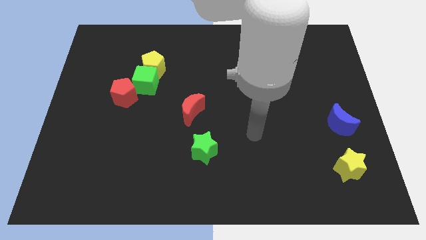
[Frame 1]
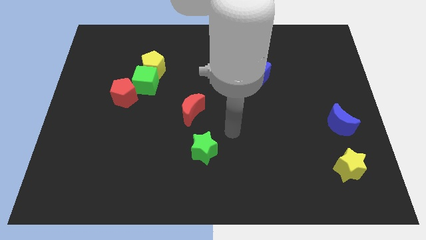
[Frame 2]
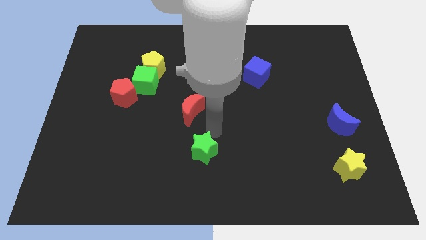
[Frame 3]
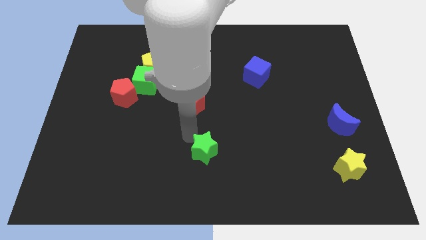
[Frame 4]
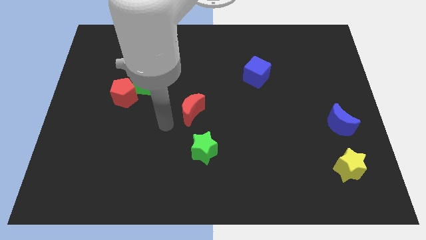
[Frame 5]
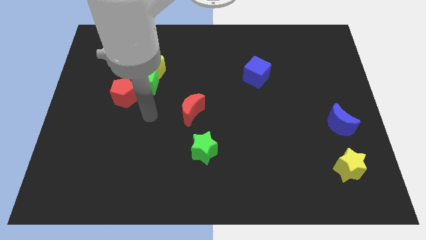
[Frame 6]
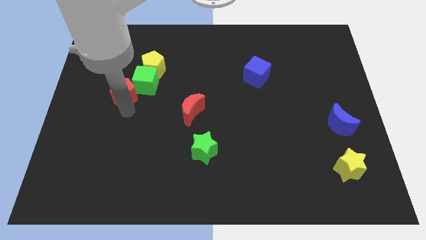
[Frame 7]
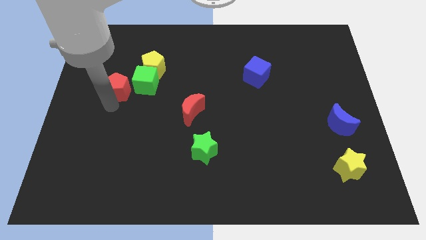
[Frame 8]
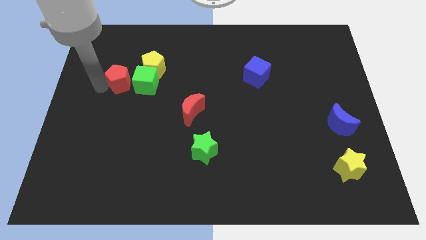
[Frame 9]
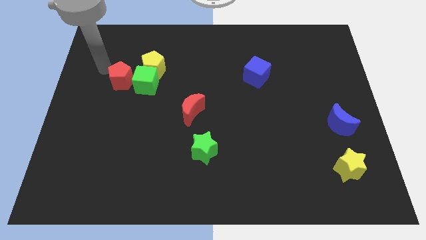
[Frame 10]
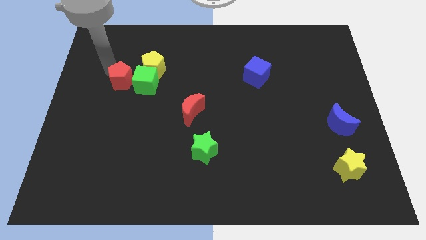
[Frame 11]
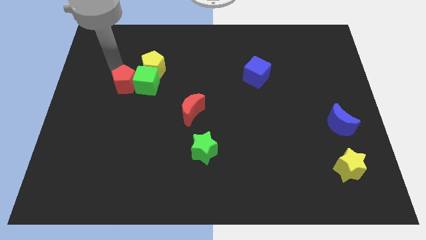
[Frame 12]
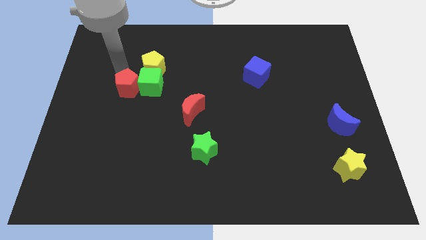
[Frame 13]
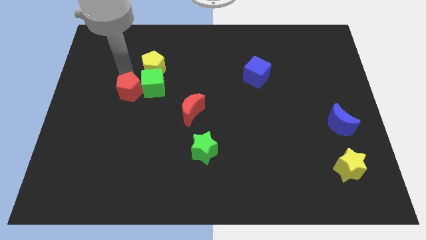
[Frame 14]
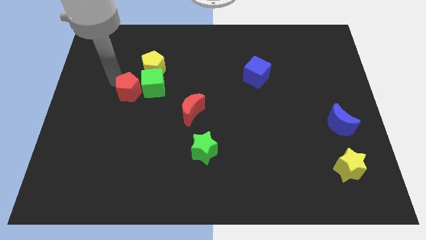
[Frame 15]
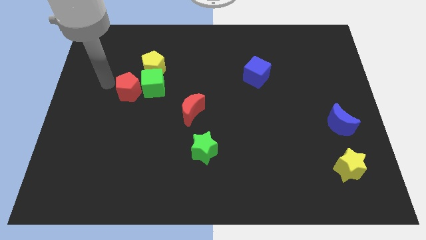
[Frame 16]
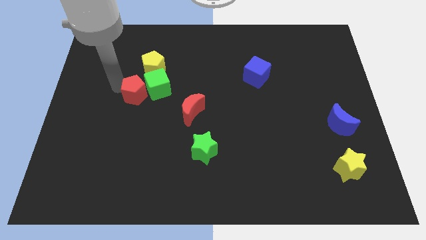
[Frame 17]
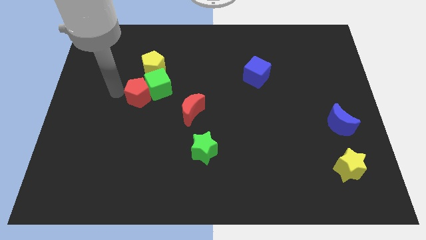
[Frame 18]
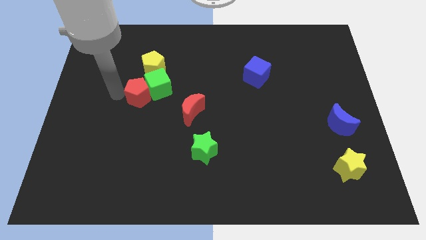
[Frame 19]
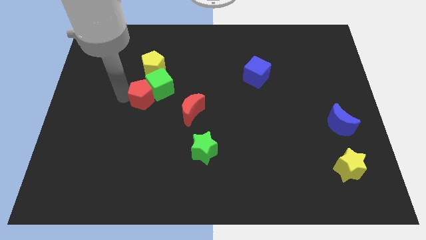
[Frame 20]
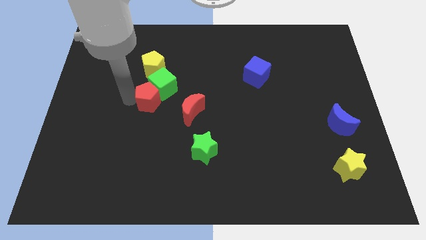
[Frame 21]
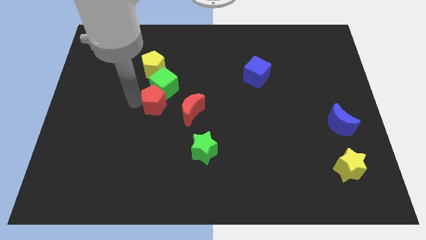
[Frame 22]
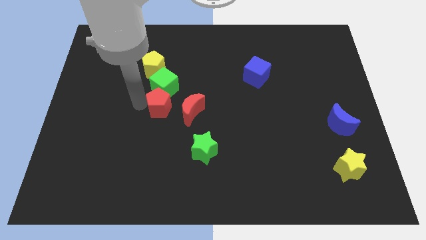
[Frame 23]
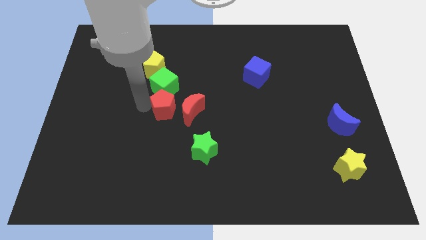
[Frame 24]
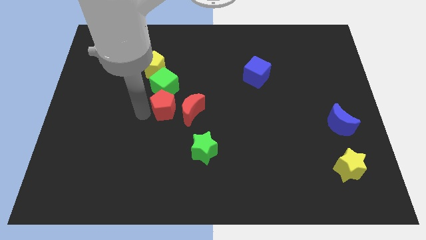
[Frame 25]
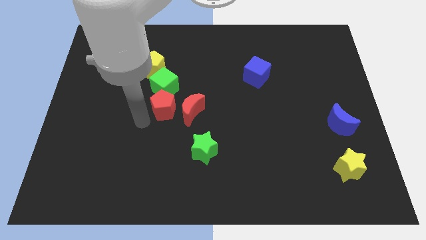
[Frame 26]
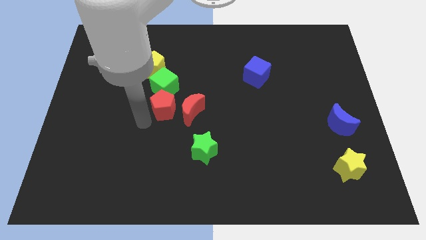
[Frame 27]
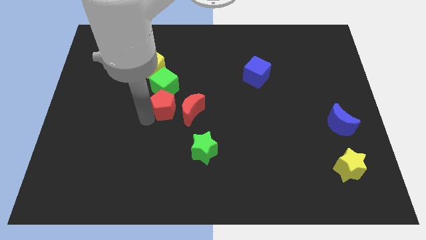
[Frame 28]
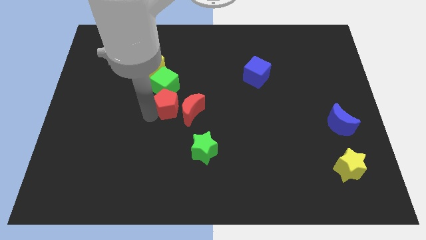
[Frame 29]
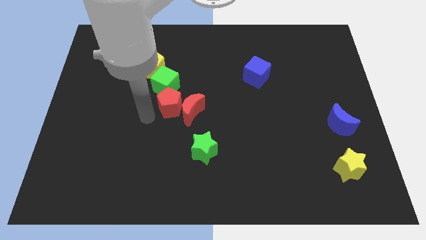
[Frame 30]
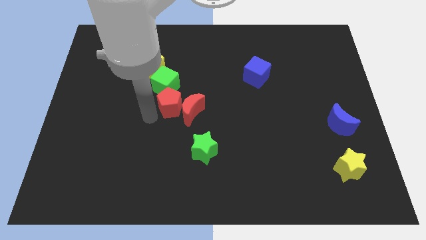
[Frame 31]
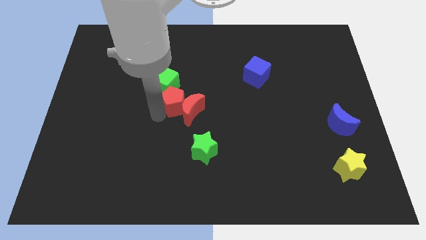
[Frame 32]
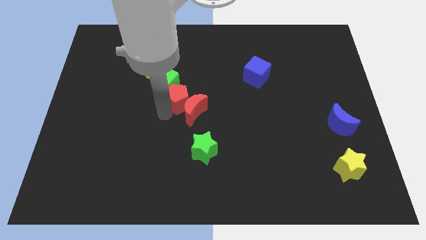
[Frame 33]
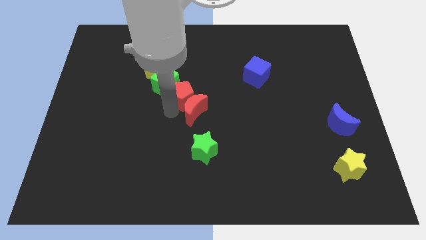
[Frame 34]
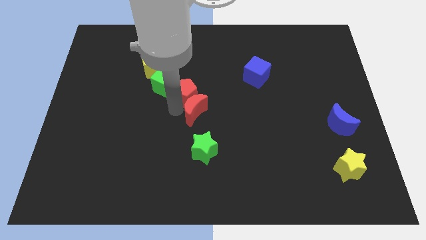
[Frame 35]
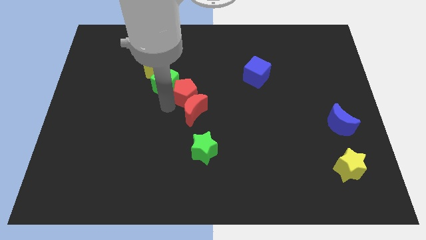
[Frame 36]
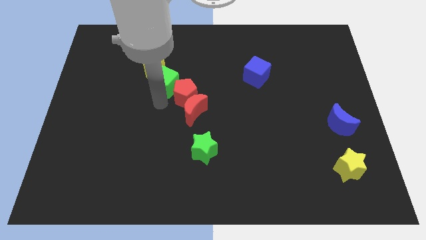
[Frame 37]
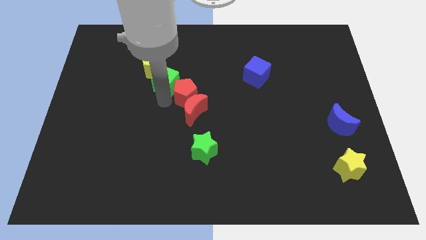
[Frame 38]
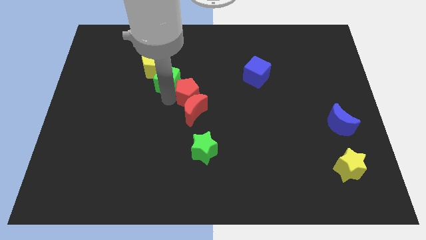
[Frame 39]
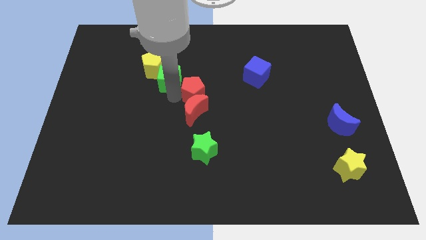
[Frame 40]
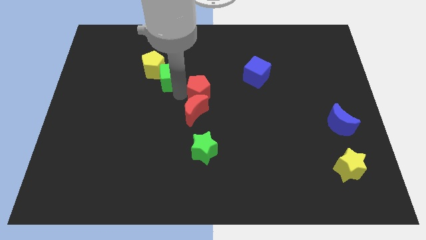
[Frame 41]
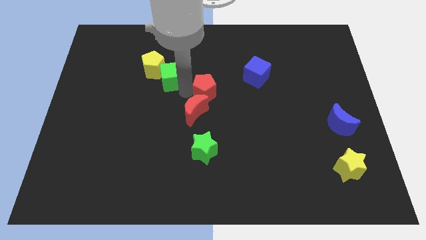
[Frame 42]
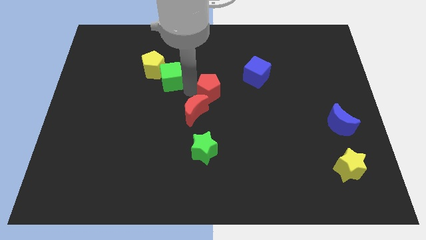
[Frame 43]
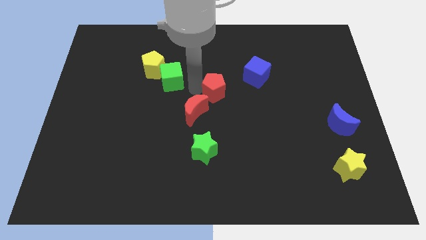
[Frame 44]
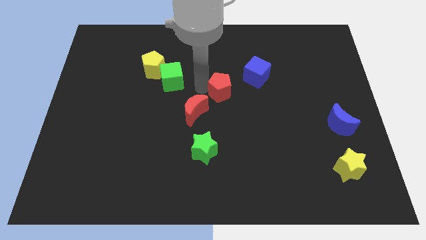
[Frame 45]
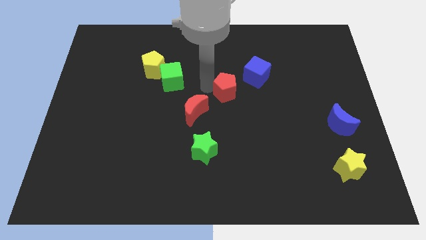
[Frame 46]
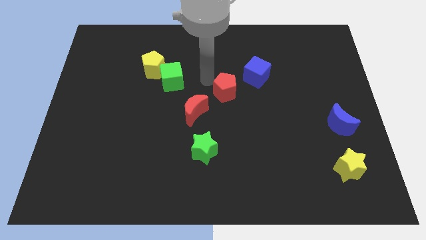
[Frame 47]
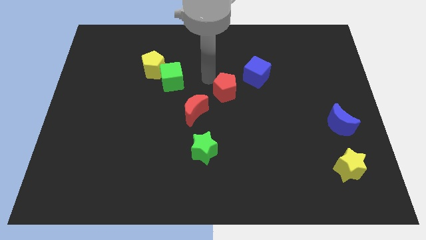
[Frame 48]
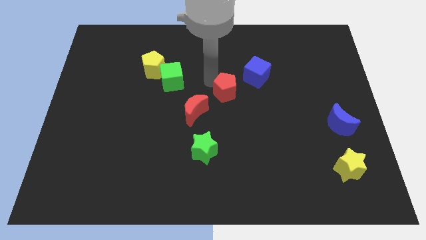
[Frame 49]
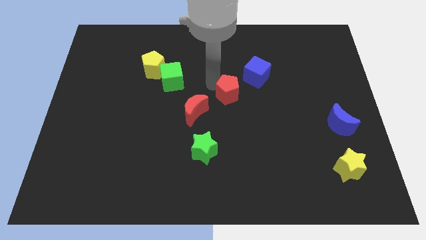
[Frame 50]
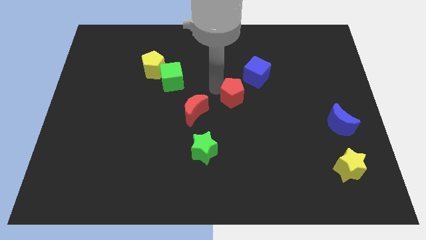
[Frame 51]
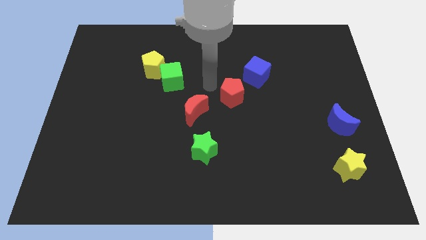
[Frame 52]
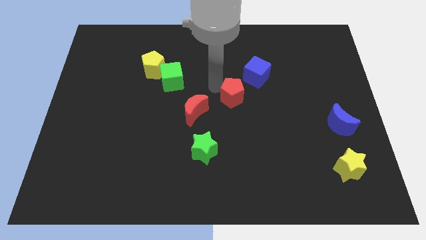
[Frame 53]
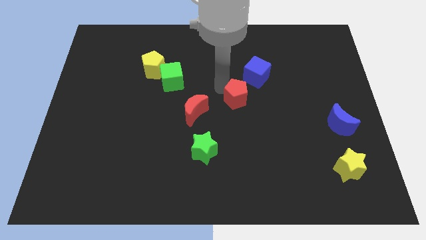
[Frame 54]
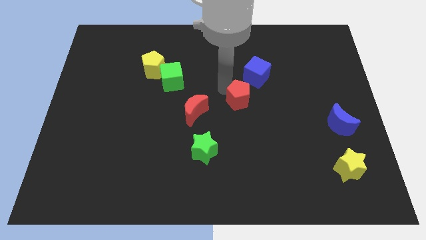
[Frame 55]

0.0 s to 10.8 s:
slide the red pentagon to the bottom of the blue cube

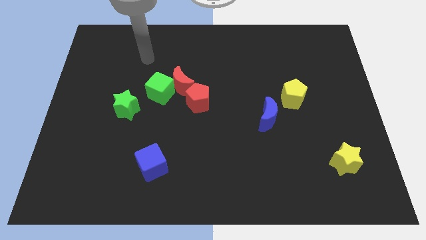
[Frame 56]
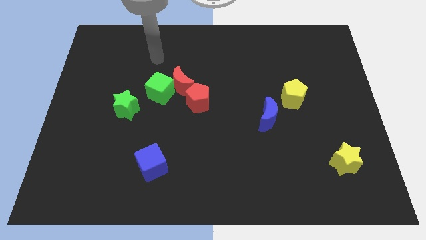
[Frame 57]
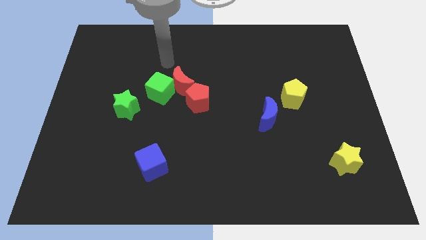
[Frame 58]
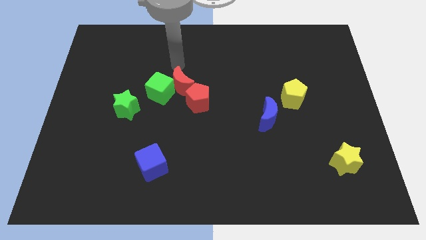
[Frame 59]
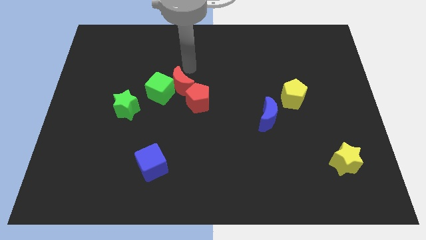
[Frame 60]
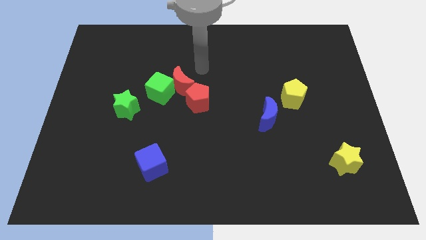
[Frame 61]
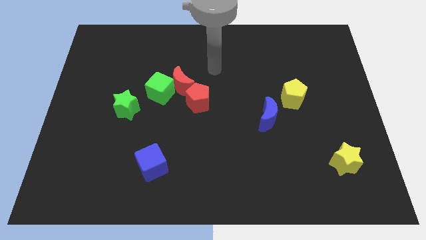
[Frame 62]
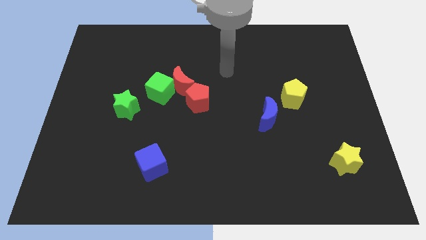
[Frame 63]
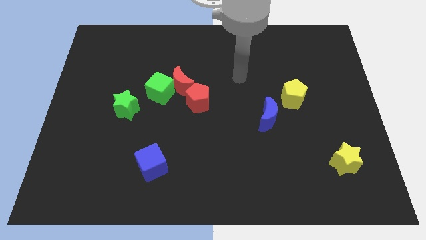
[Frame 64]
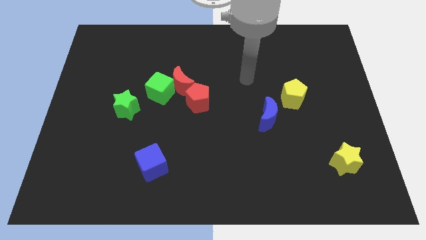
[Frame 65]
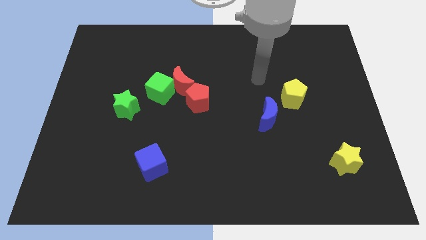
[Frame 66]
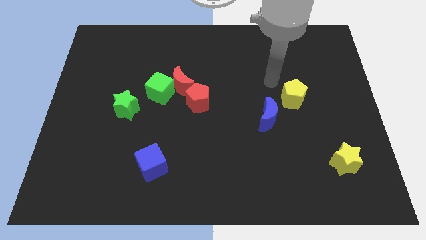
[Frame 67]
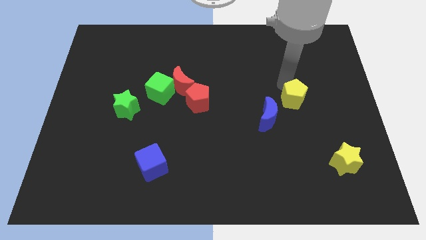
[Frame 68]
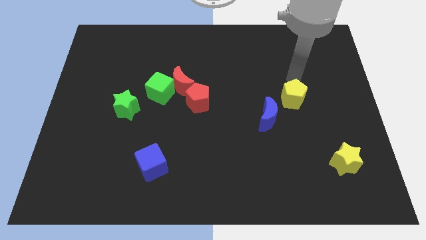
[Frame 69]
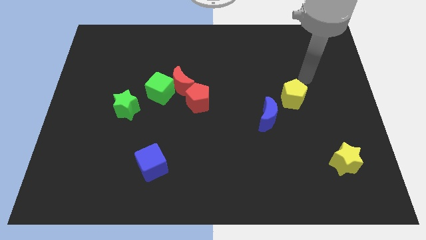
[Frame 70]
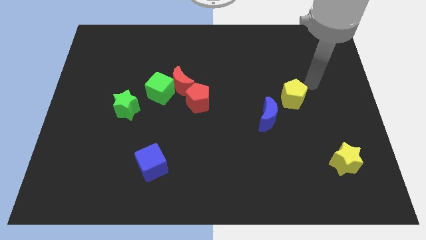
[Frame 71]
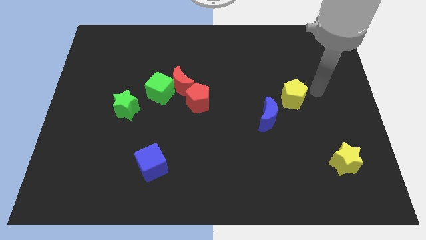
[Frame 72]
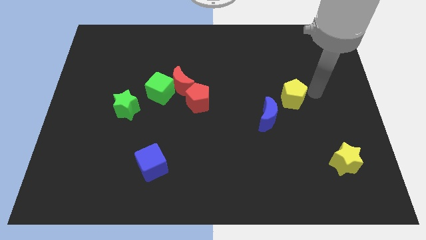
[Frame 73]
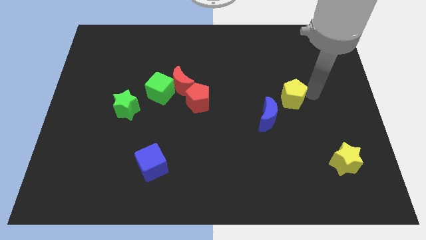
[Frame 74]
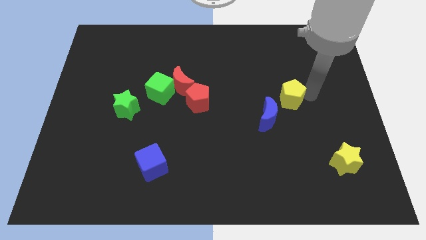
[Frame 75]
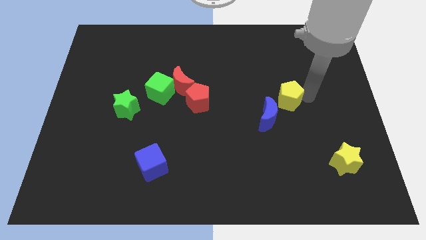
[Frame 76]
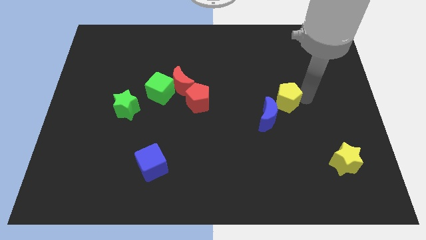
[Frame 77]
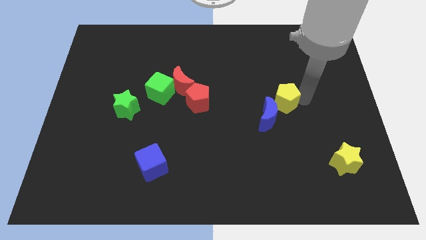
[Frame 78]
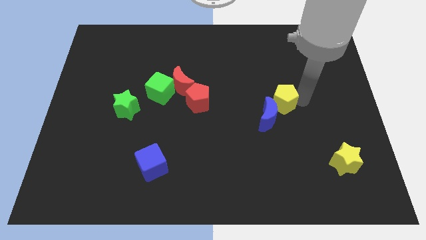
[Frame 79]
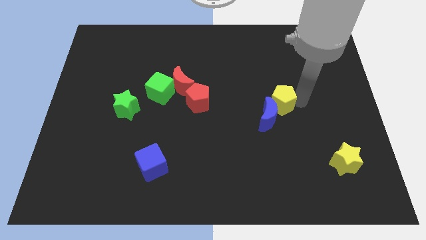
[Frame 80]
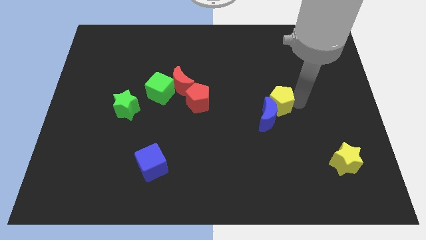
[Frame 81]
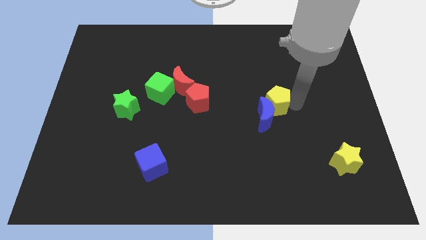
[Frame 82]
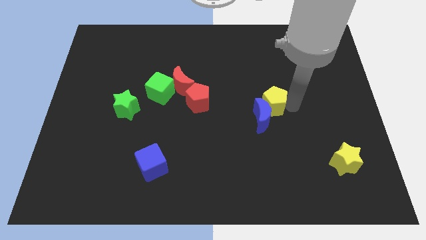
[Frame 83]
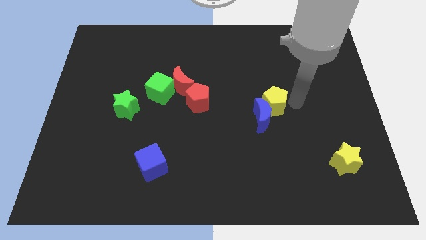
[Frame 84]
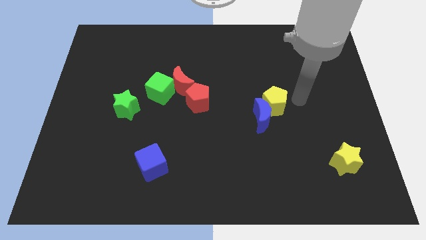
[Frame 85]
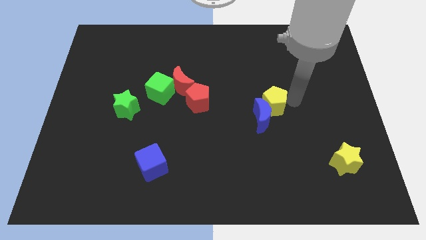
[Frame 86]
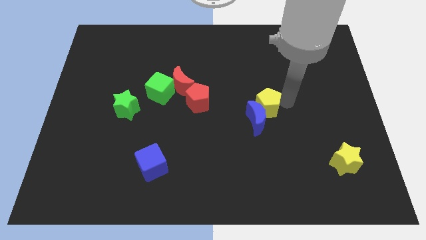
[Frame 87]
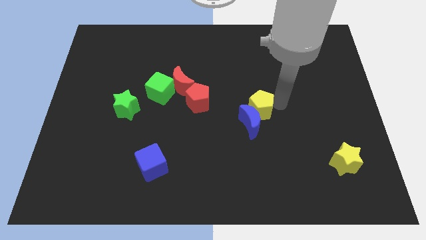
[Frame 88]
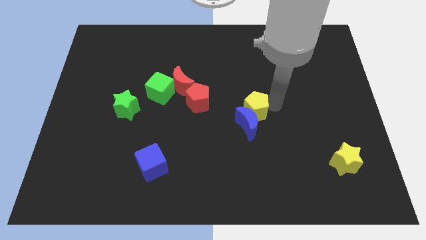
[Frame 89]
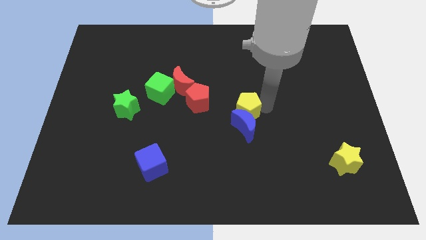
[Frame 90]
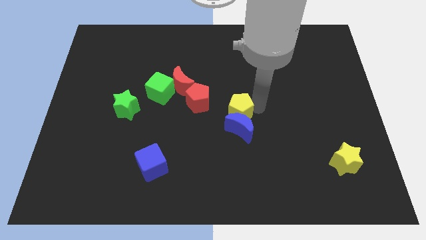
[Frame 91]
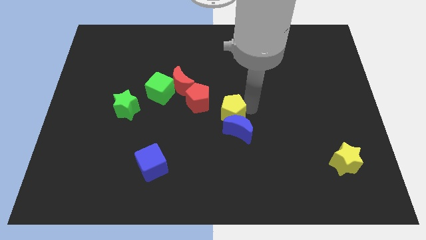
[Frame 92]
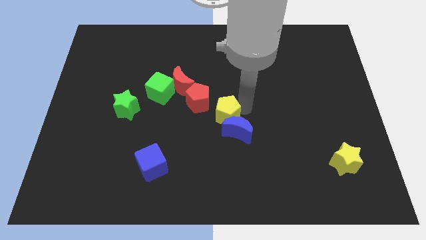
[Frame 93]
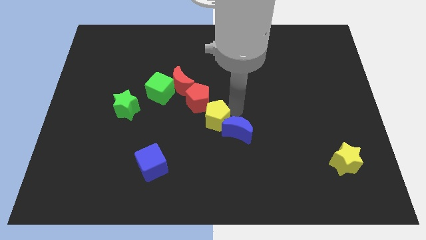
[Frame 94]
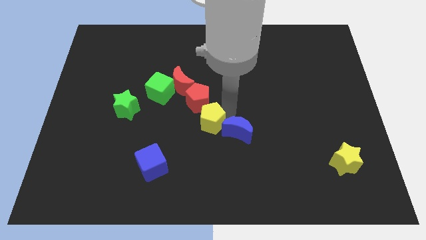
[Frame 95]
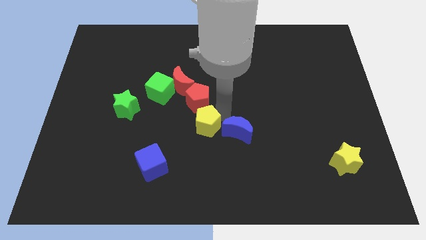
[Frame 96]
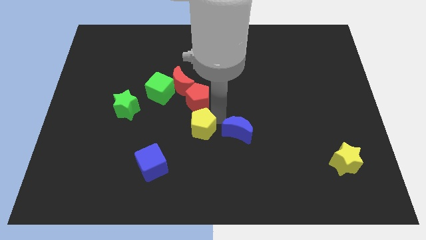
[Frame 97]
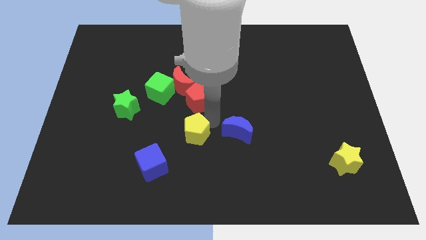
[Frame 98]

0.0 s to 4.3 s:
slide the yellow pentagon to the top right of the blue cube
